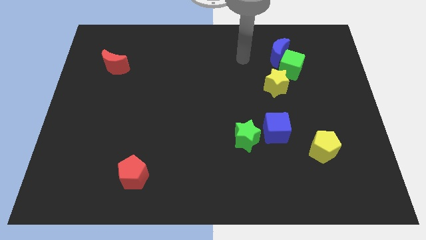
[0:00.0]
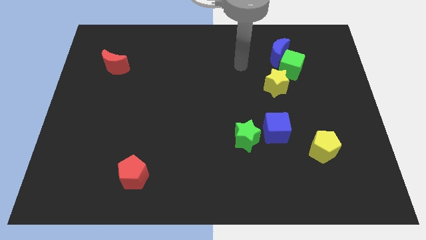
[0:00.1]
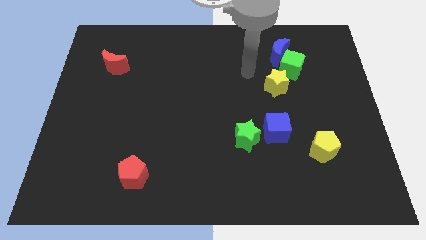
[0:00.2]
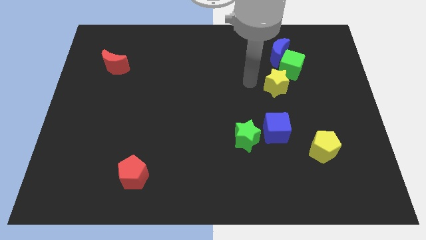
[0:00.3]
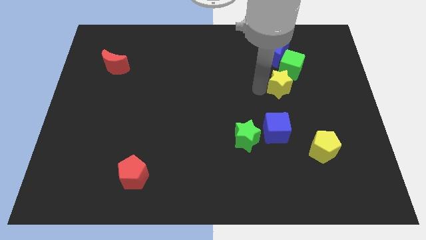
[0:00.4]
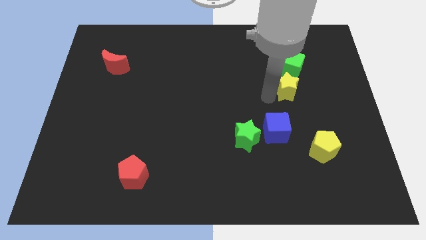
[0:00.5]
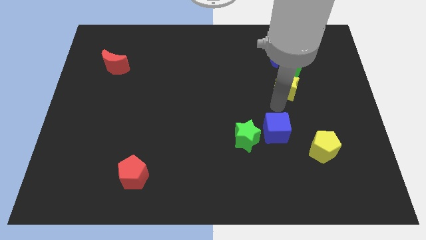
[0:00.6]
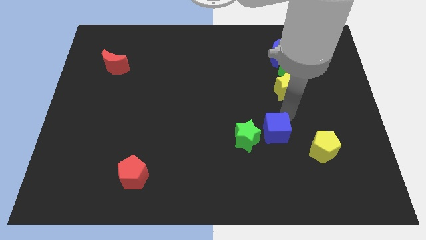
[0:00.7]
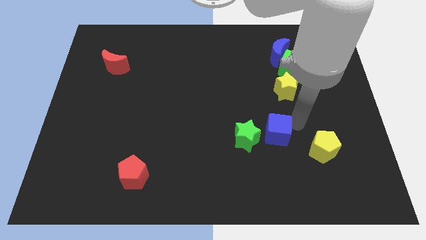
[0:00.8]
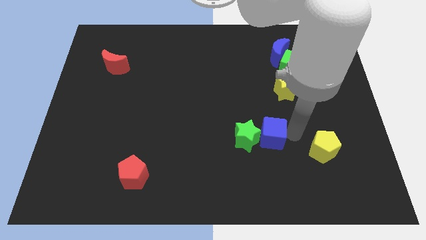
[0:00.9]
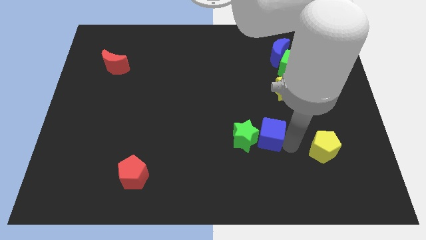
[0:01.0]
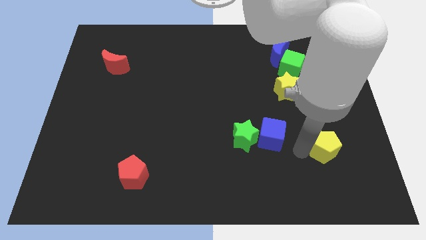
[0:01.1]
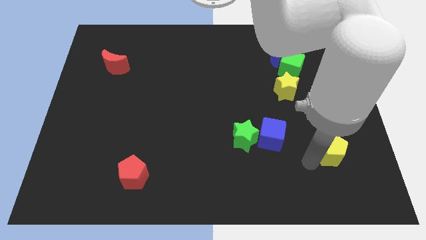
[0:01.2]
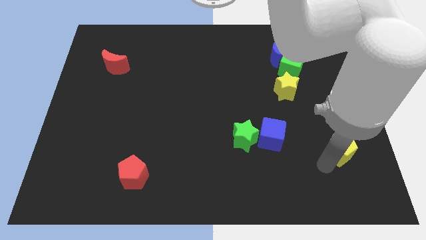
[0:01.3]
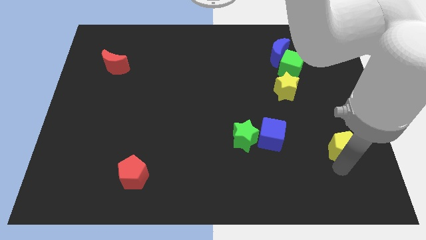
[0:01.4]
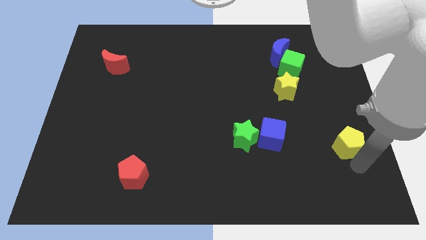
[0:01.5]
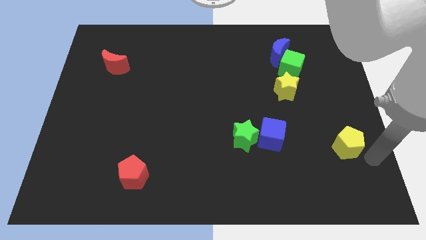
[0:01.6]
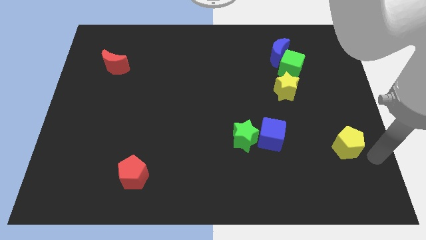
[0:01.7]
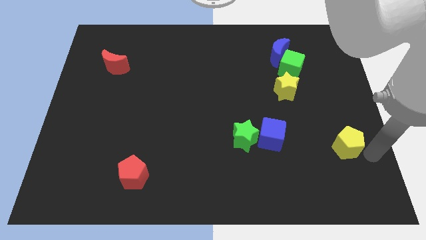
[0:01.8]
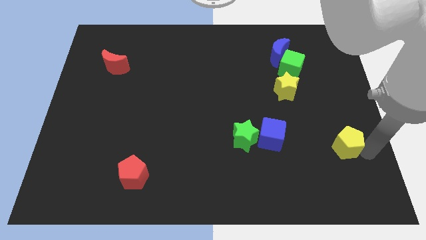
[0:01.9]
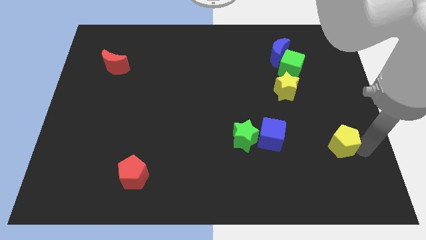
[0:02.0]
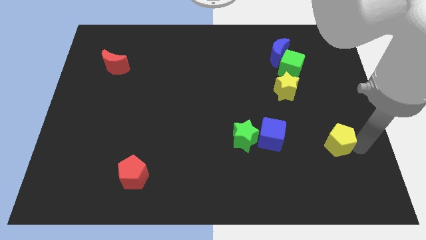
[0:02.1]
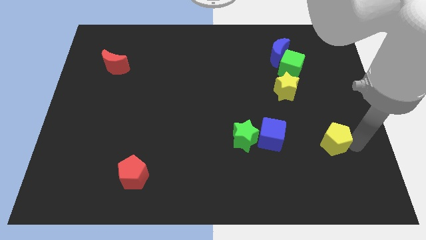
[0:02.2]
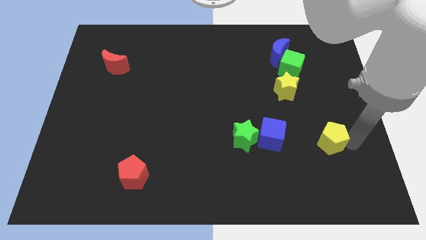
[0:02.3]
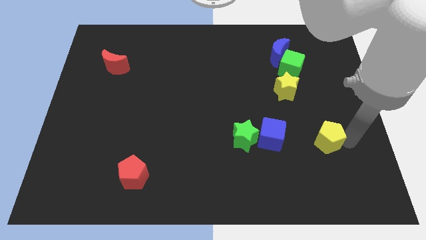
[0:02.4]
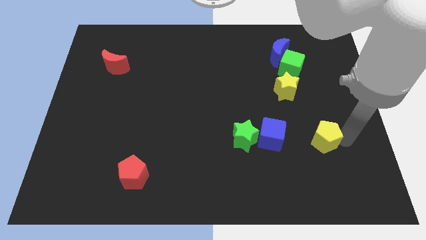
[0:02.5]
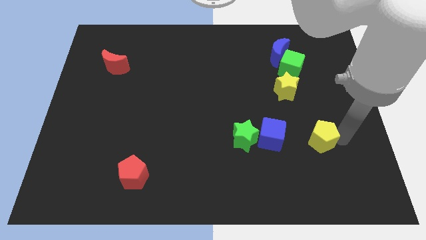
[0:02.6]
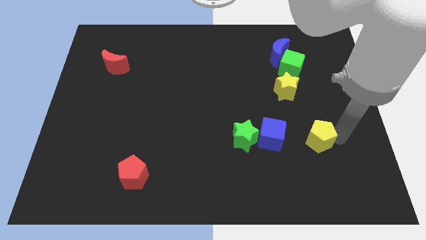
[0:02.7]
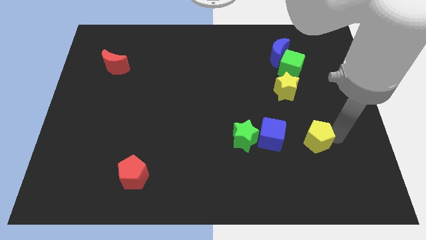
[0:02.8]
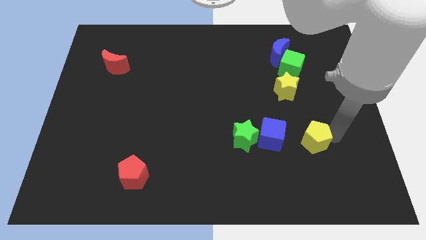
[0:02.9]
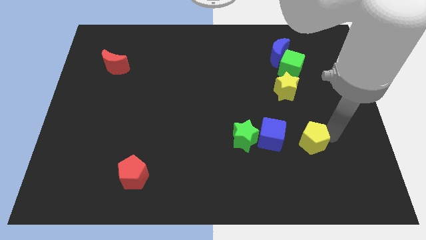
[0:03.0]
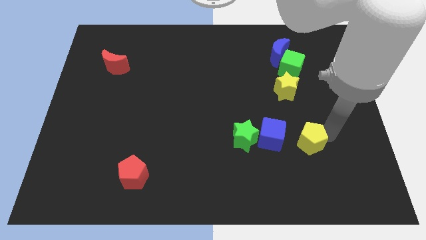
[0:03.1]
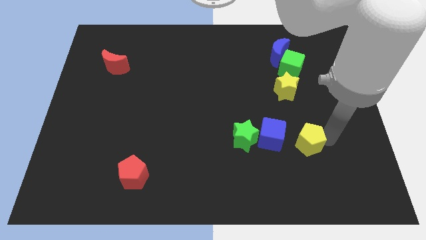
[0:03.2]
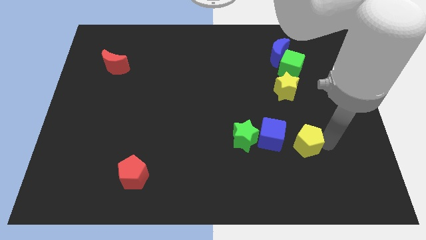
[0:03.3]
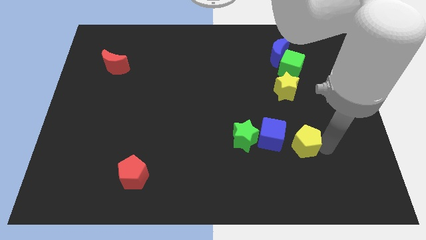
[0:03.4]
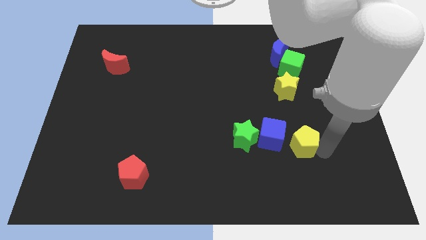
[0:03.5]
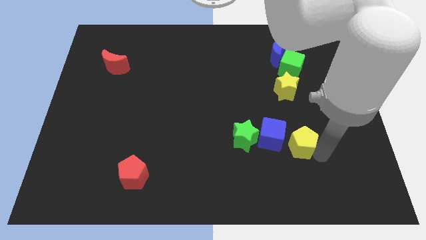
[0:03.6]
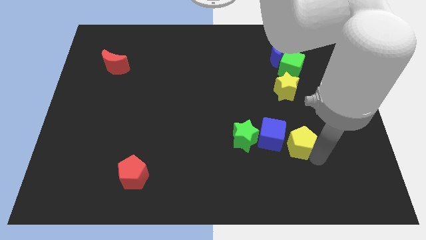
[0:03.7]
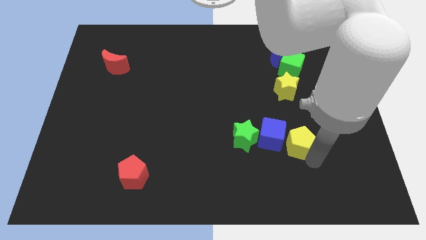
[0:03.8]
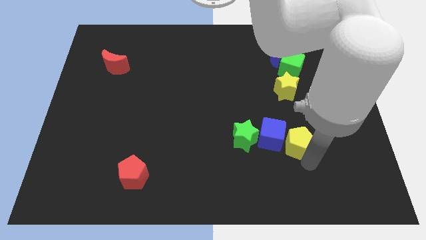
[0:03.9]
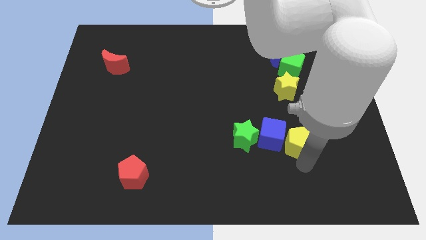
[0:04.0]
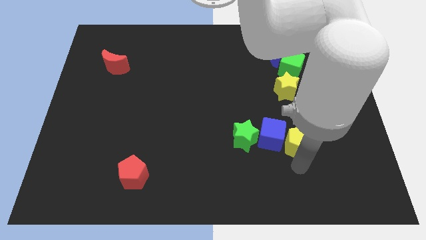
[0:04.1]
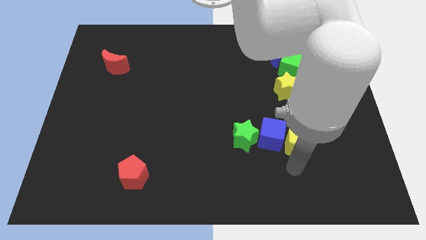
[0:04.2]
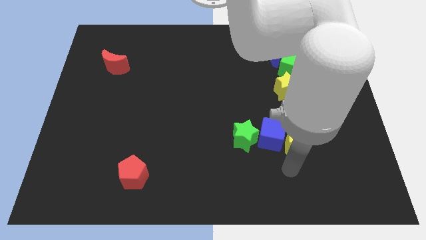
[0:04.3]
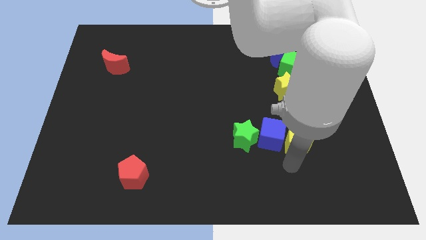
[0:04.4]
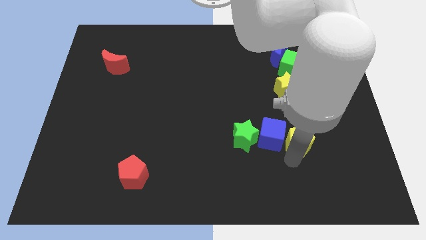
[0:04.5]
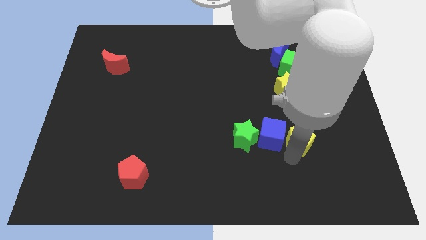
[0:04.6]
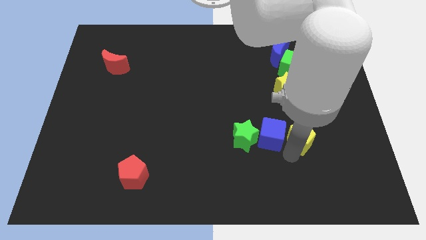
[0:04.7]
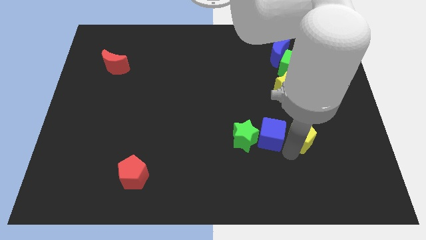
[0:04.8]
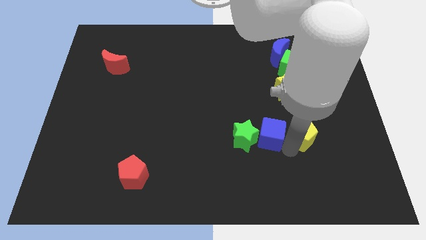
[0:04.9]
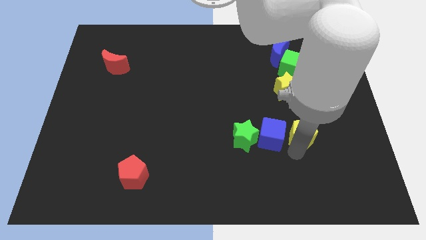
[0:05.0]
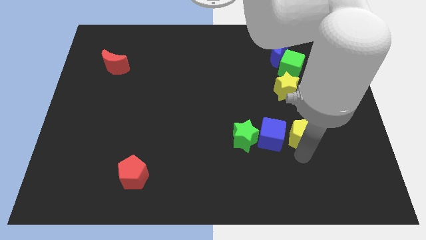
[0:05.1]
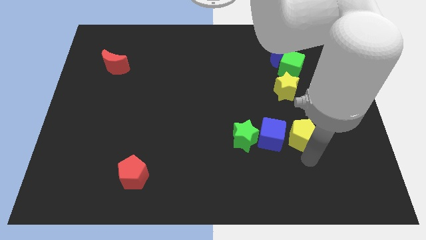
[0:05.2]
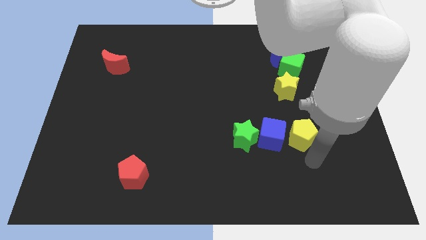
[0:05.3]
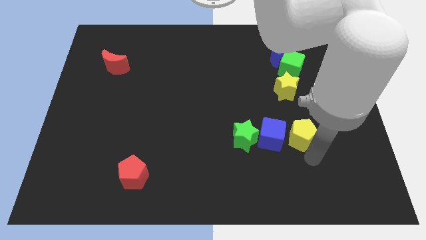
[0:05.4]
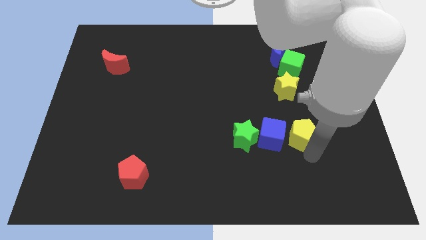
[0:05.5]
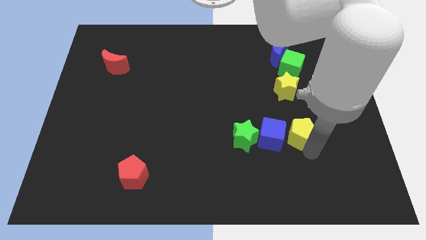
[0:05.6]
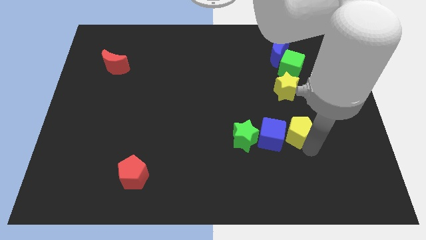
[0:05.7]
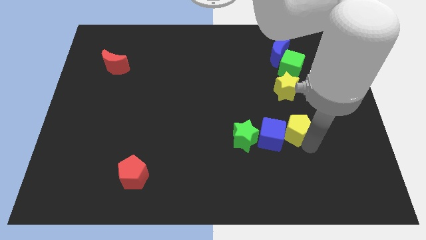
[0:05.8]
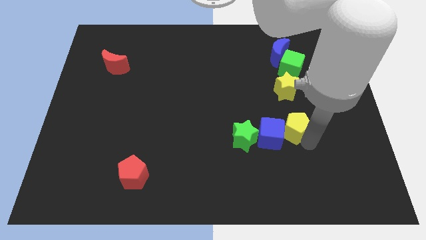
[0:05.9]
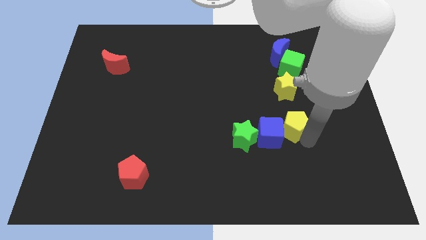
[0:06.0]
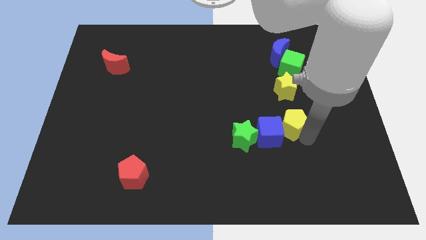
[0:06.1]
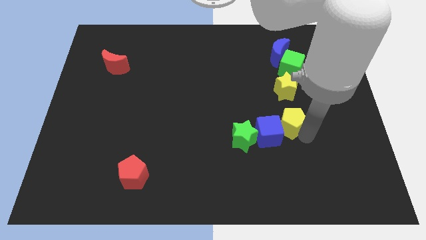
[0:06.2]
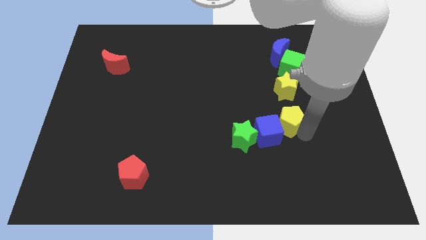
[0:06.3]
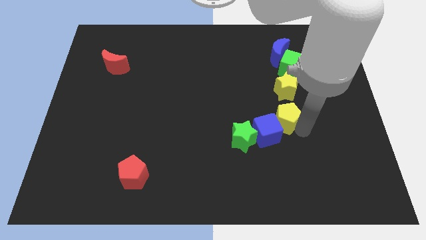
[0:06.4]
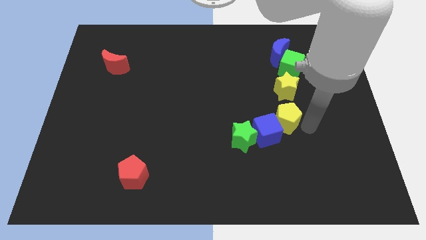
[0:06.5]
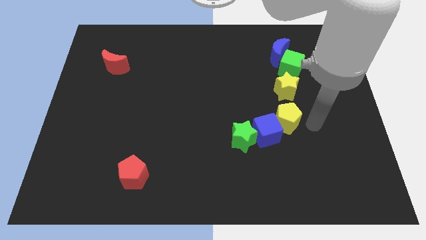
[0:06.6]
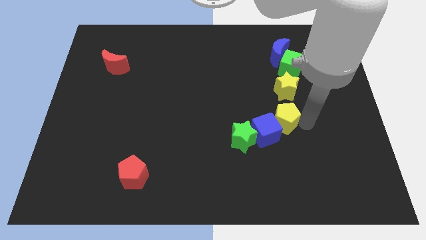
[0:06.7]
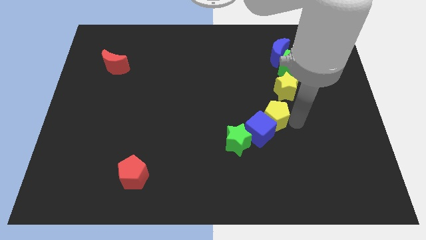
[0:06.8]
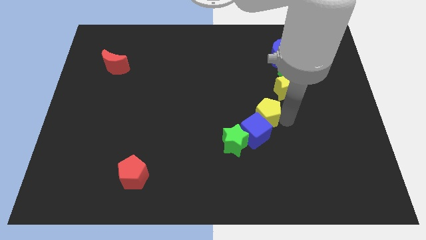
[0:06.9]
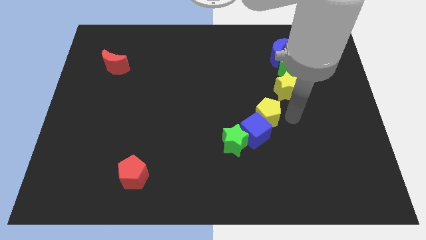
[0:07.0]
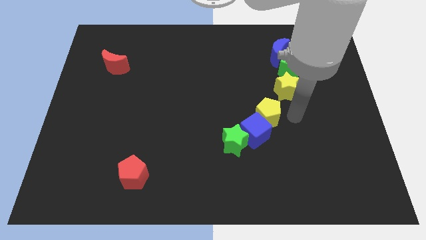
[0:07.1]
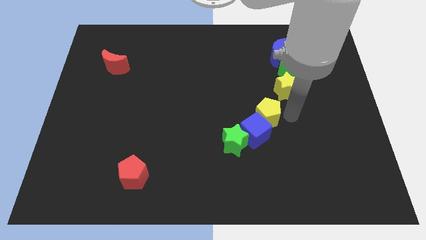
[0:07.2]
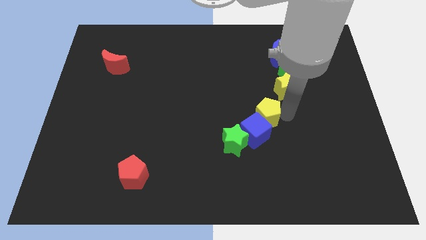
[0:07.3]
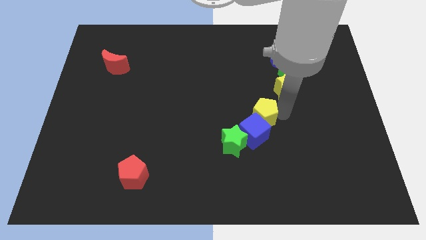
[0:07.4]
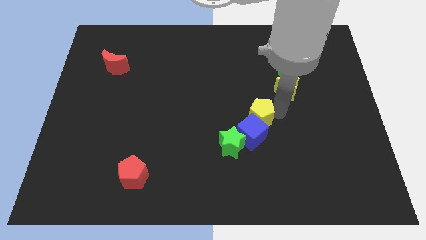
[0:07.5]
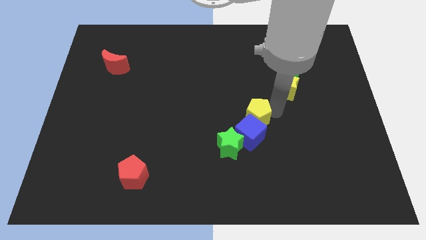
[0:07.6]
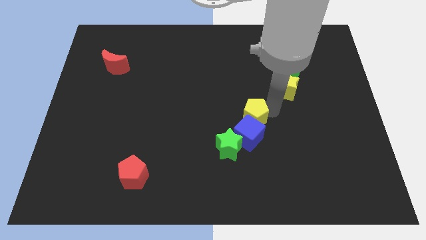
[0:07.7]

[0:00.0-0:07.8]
move the yellow pentagon to the top left of the blue cube
